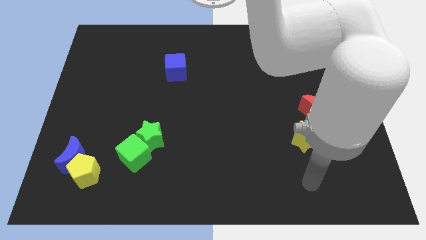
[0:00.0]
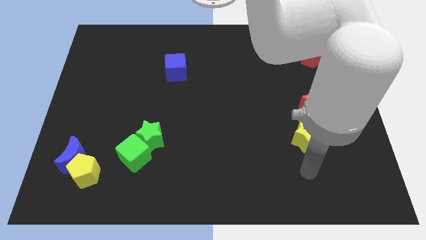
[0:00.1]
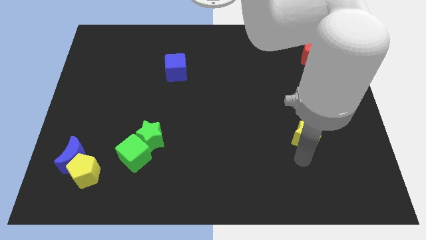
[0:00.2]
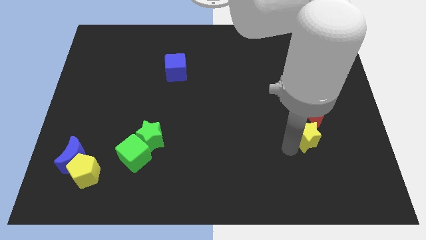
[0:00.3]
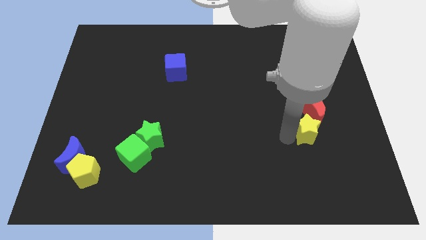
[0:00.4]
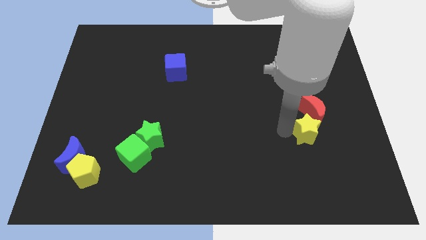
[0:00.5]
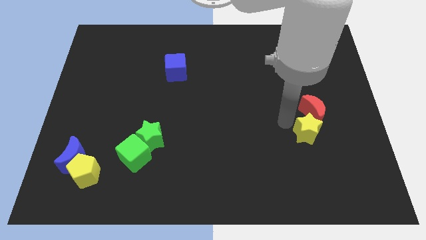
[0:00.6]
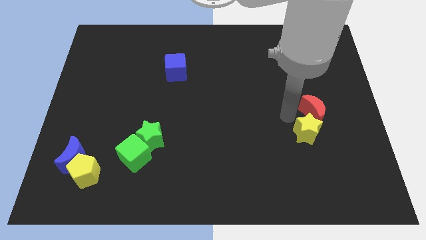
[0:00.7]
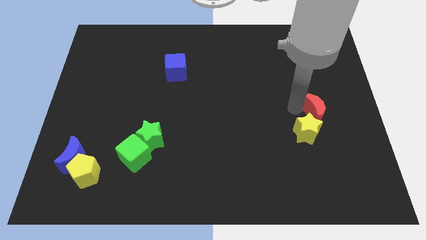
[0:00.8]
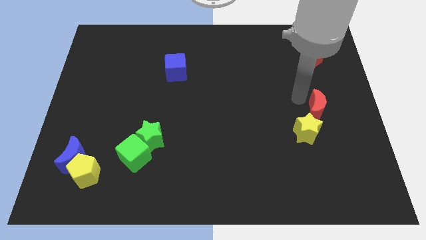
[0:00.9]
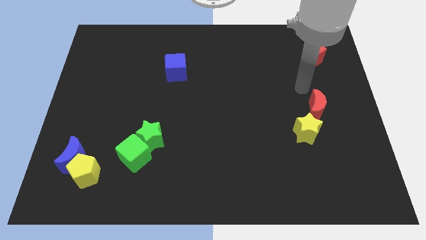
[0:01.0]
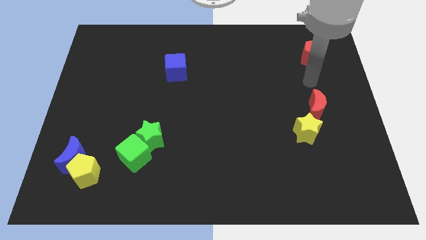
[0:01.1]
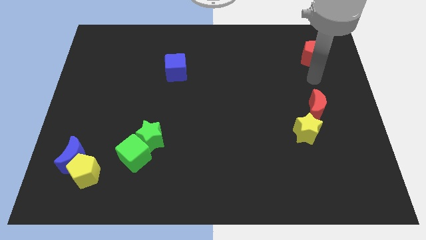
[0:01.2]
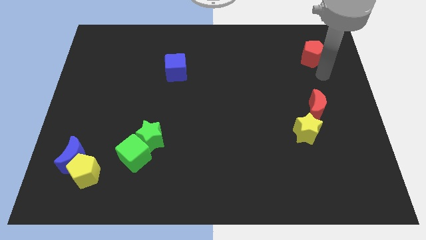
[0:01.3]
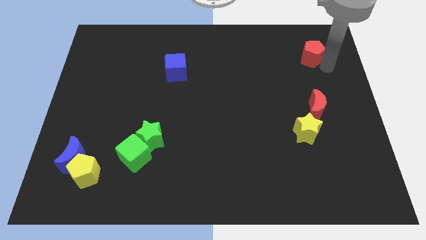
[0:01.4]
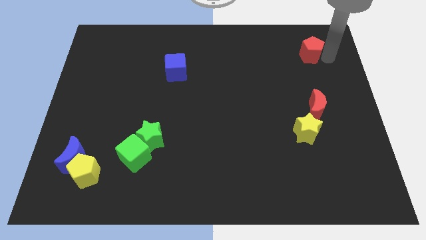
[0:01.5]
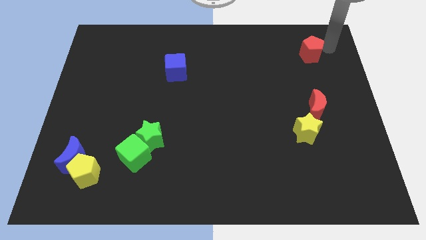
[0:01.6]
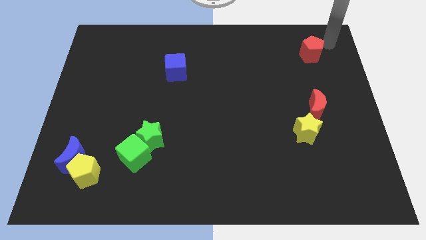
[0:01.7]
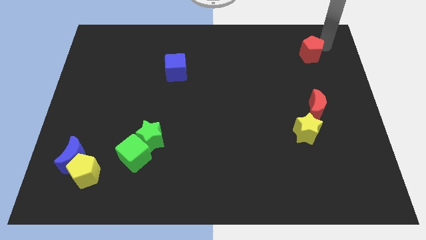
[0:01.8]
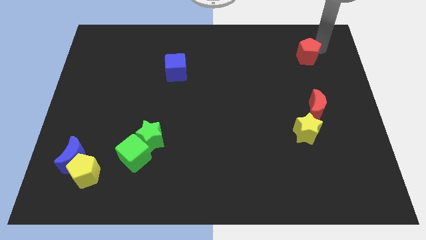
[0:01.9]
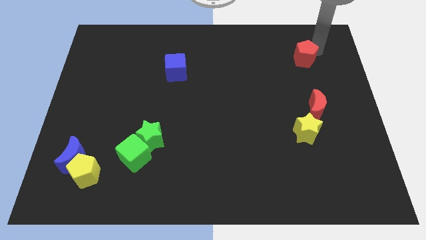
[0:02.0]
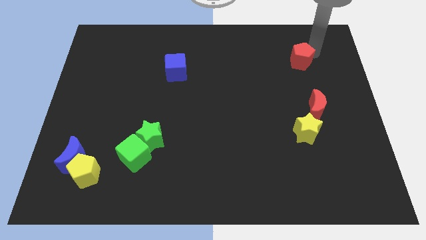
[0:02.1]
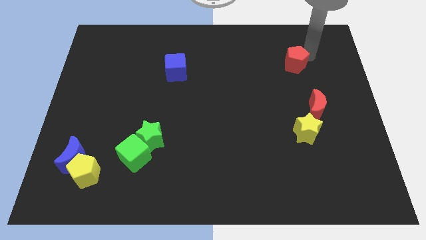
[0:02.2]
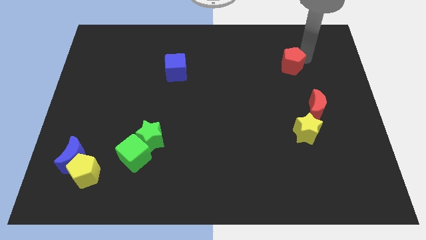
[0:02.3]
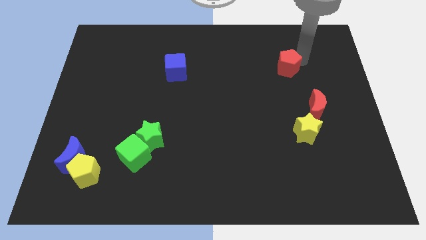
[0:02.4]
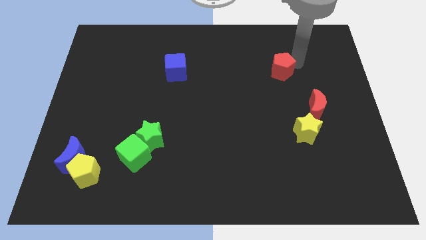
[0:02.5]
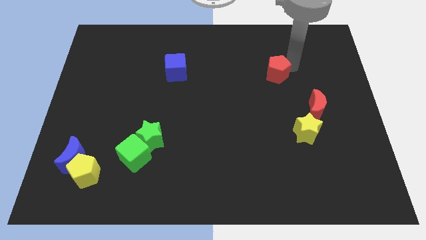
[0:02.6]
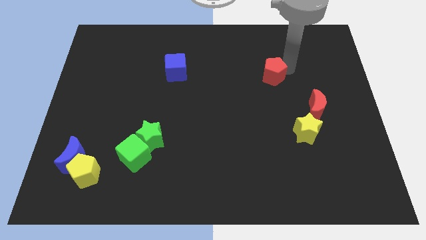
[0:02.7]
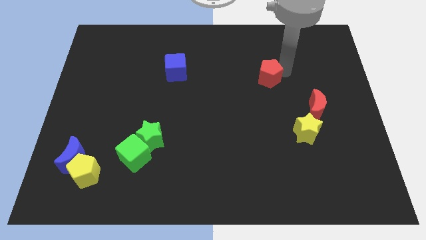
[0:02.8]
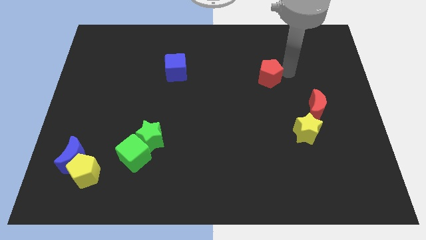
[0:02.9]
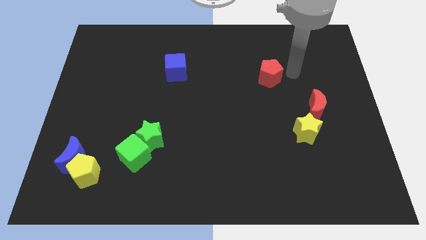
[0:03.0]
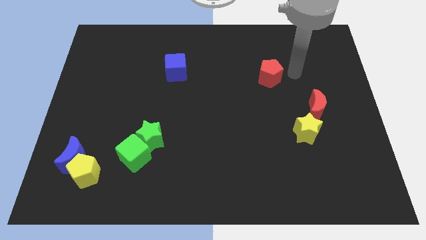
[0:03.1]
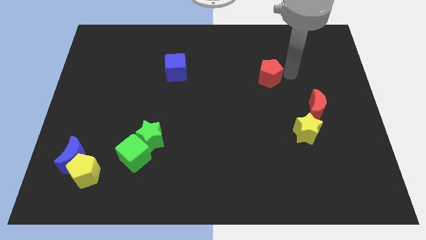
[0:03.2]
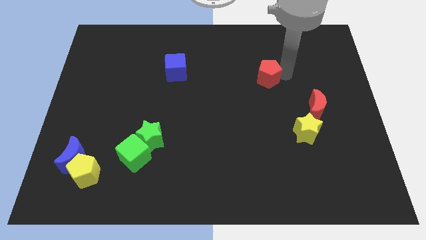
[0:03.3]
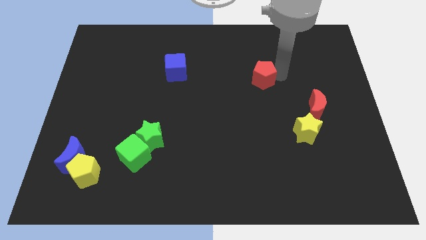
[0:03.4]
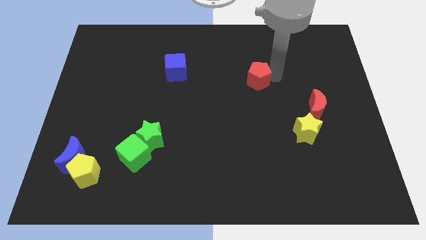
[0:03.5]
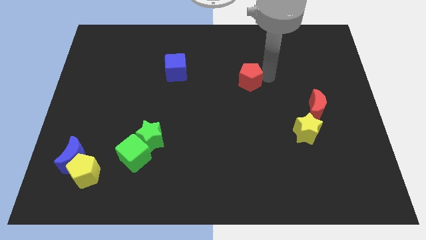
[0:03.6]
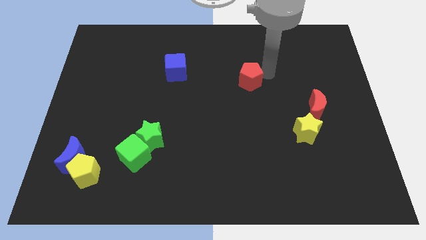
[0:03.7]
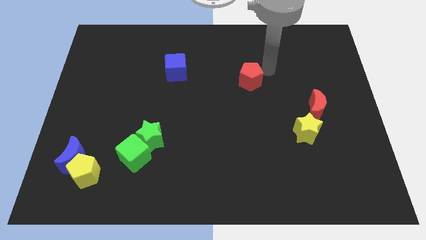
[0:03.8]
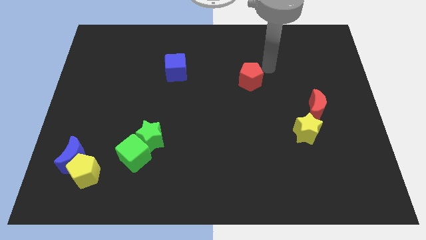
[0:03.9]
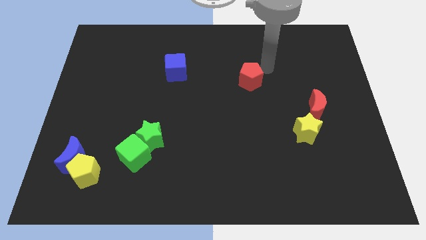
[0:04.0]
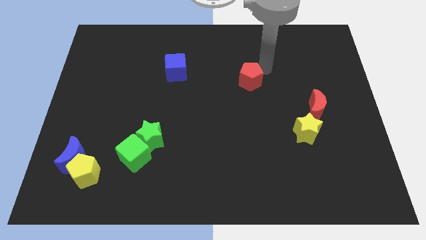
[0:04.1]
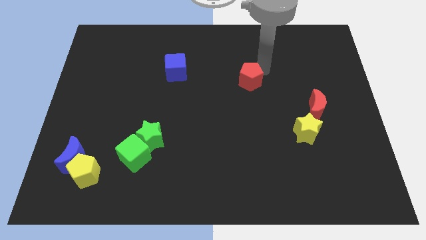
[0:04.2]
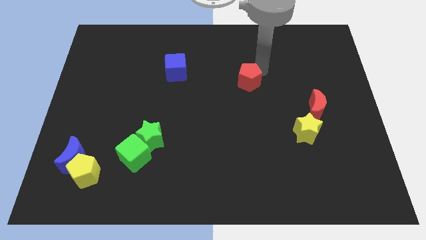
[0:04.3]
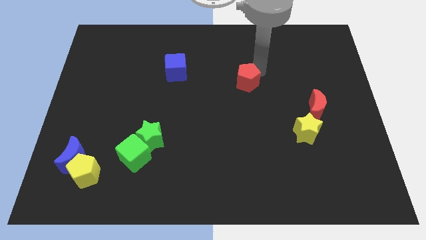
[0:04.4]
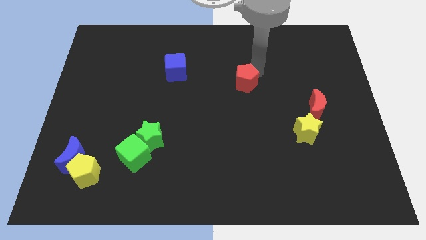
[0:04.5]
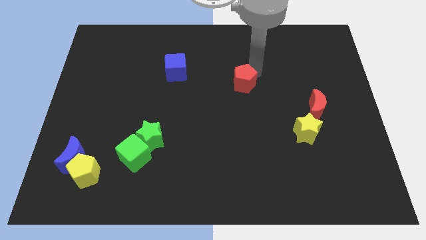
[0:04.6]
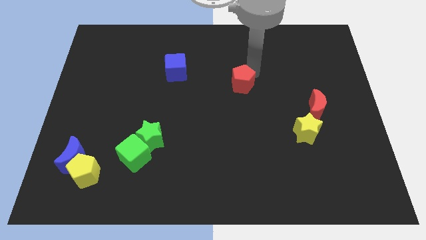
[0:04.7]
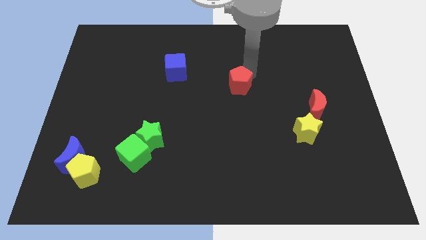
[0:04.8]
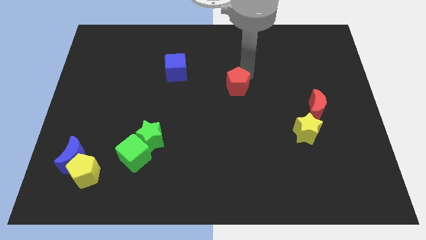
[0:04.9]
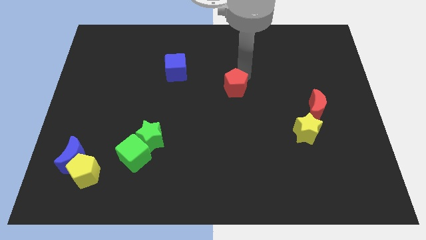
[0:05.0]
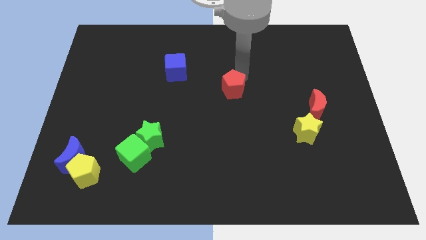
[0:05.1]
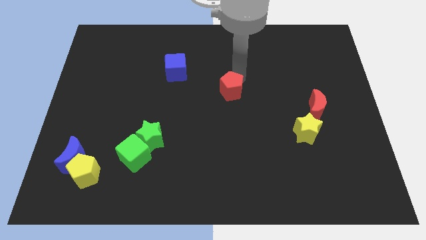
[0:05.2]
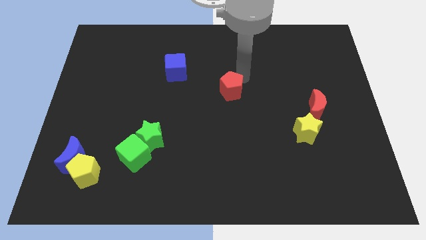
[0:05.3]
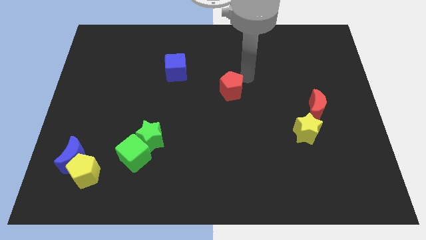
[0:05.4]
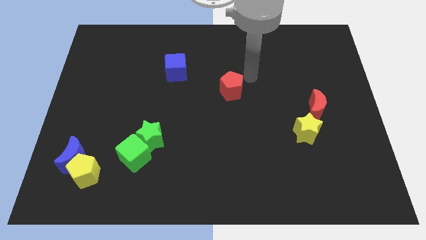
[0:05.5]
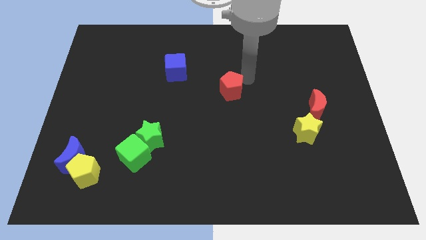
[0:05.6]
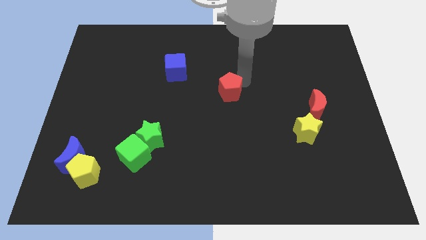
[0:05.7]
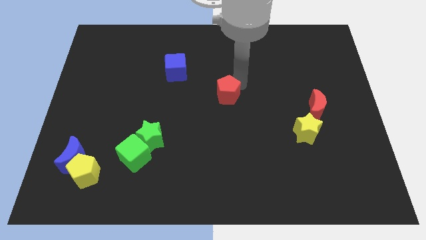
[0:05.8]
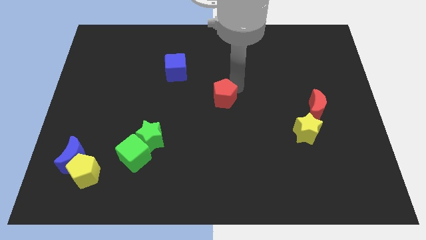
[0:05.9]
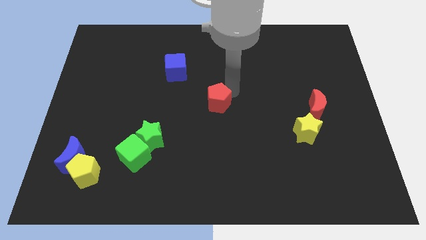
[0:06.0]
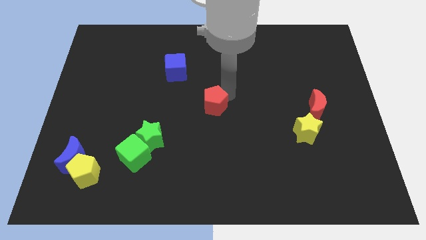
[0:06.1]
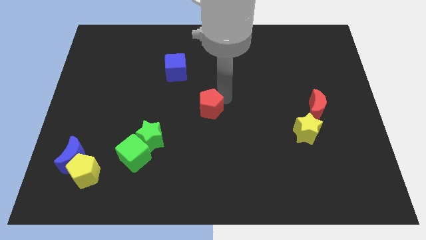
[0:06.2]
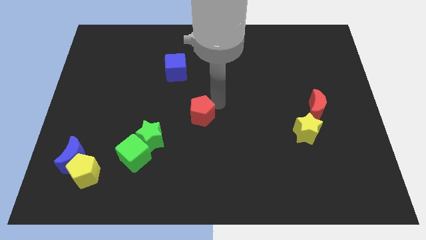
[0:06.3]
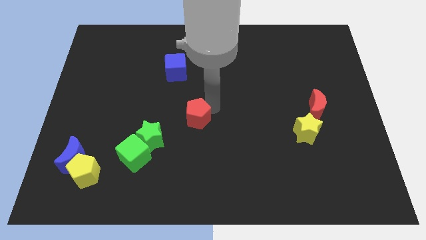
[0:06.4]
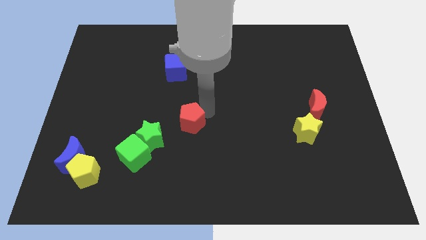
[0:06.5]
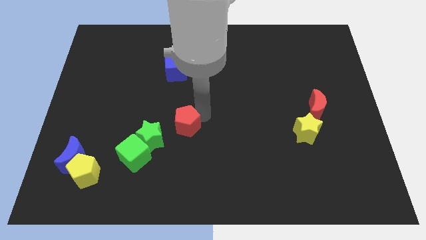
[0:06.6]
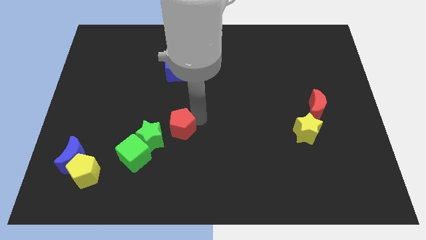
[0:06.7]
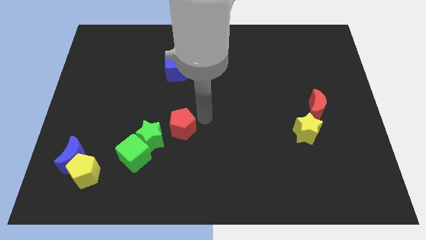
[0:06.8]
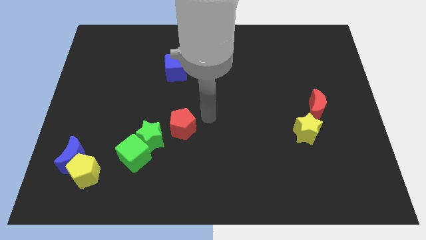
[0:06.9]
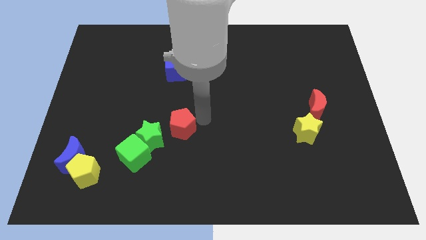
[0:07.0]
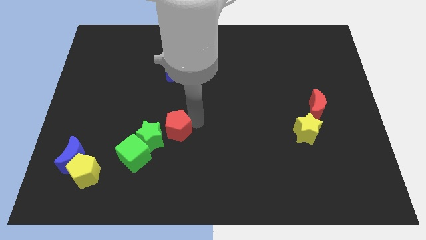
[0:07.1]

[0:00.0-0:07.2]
slide the red pentagon towards the green star

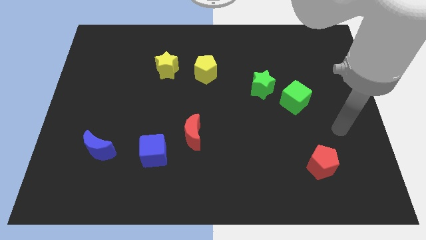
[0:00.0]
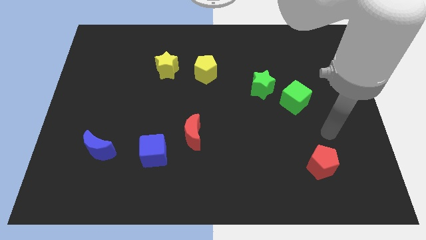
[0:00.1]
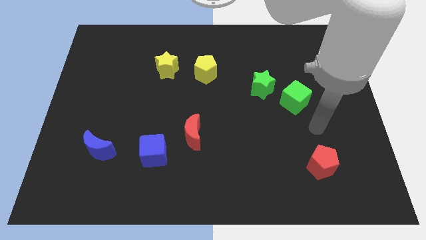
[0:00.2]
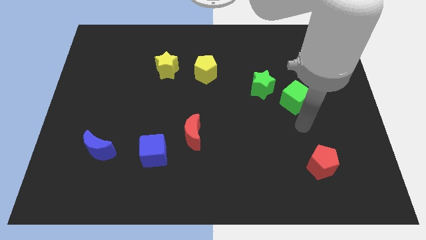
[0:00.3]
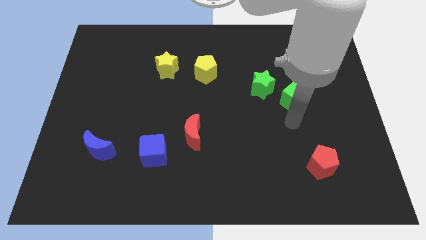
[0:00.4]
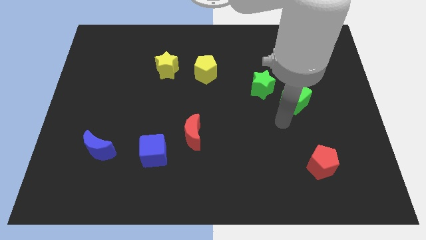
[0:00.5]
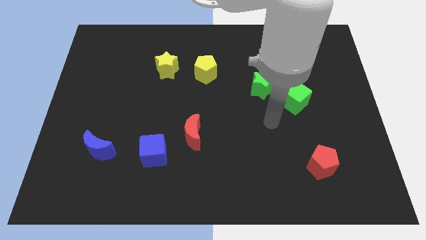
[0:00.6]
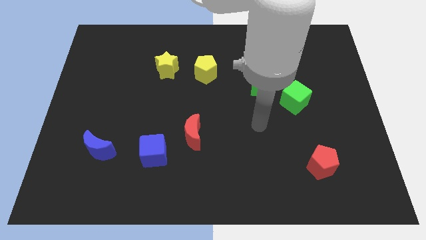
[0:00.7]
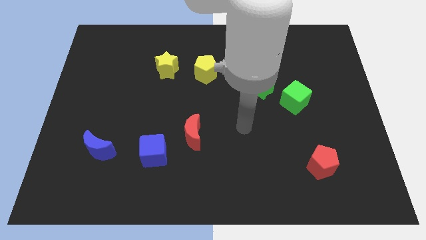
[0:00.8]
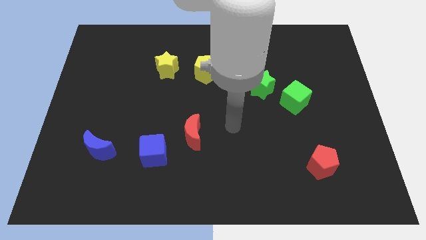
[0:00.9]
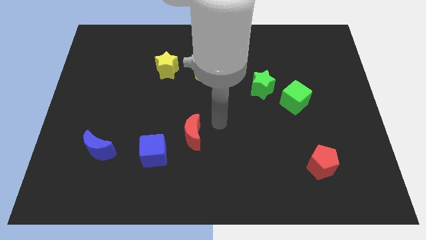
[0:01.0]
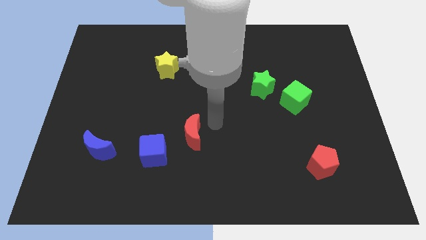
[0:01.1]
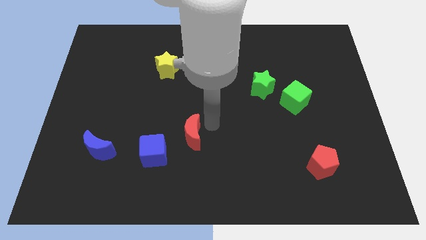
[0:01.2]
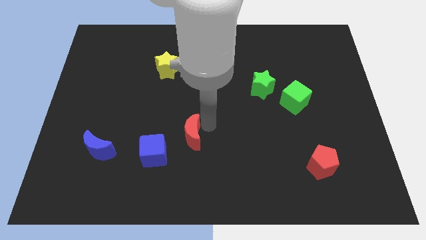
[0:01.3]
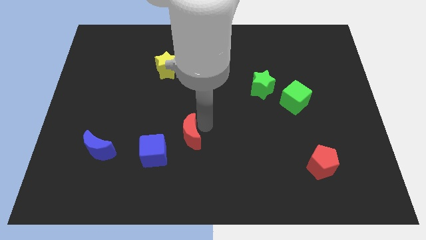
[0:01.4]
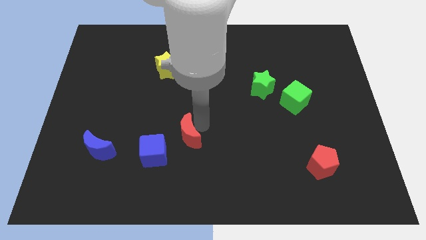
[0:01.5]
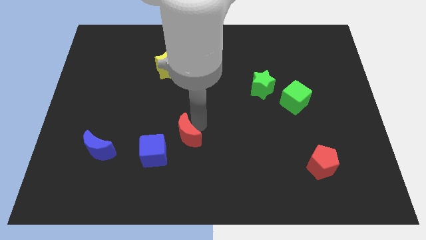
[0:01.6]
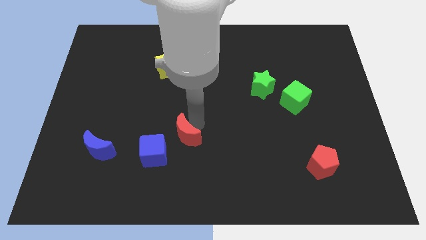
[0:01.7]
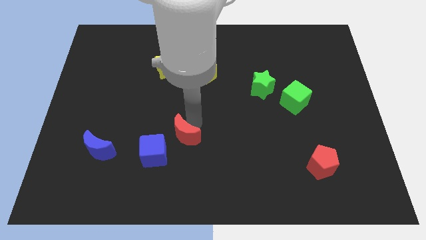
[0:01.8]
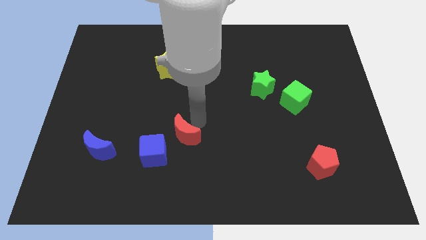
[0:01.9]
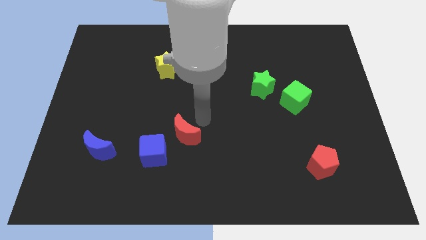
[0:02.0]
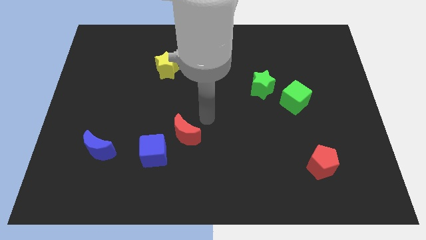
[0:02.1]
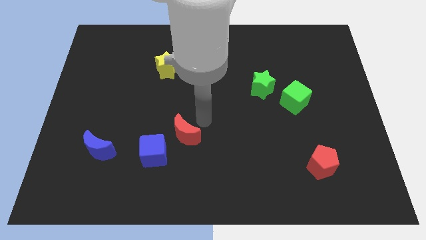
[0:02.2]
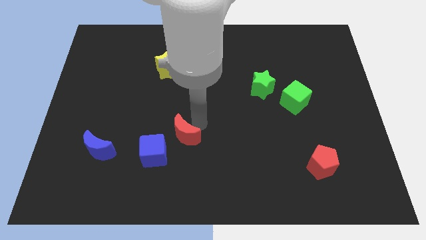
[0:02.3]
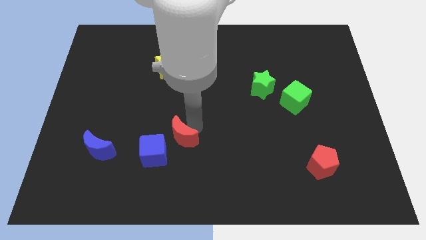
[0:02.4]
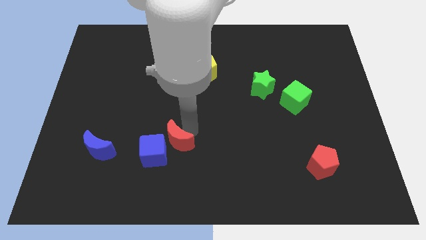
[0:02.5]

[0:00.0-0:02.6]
slide the red moon towards the blue cube
